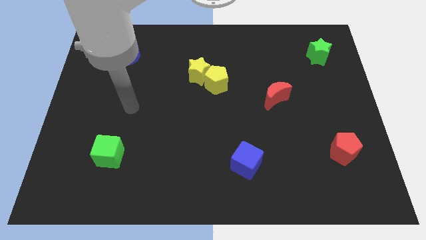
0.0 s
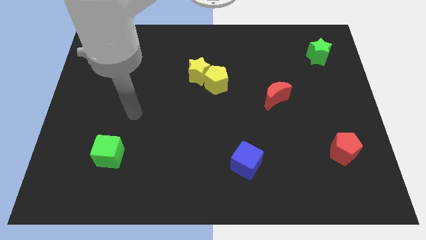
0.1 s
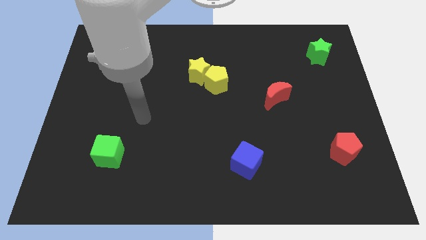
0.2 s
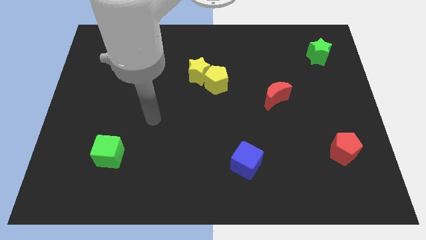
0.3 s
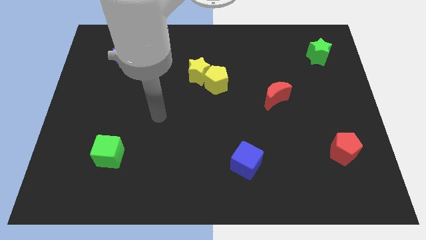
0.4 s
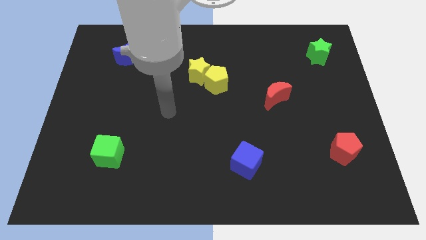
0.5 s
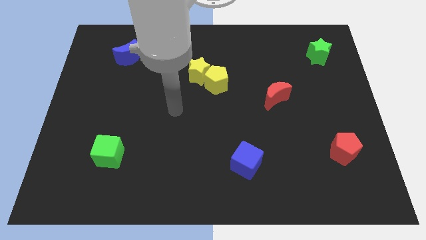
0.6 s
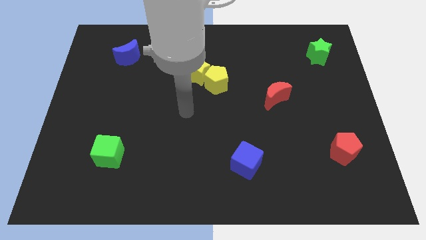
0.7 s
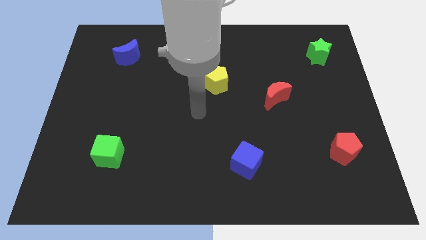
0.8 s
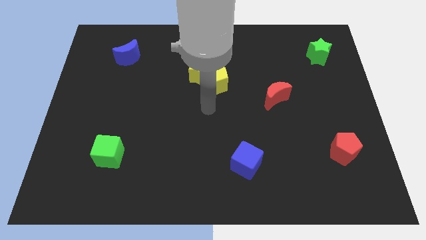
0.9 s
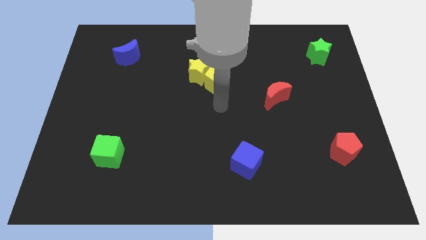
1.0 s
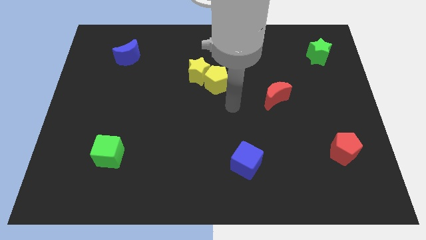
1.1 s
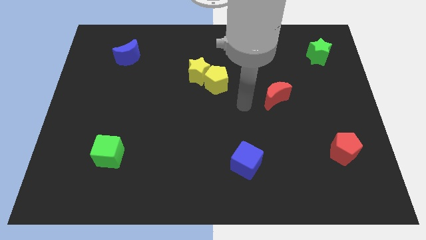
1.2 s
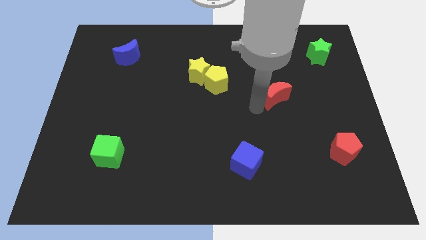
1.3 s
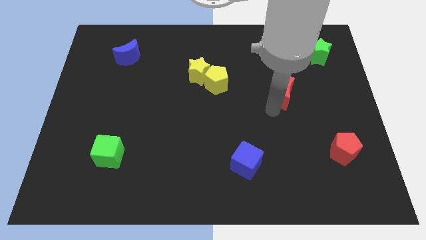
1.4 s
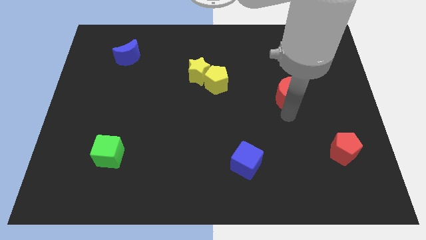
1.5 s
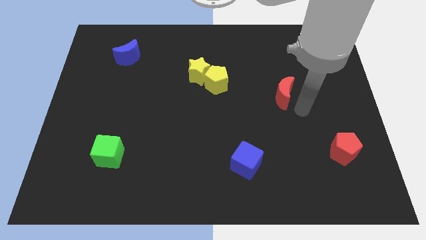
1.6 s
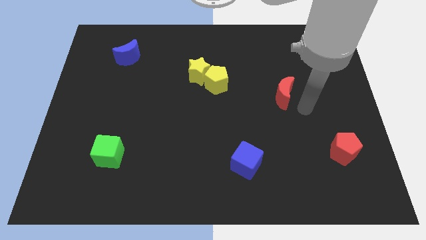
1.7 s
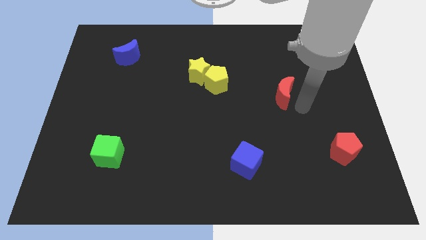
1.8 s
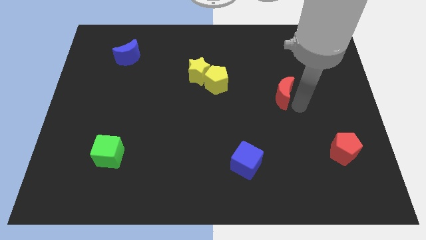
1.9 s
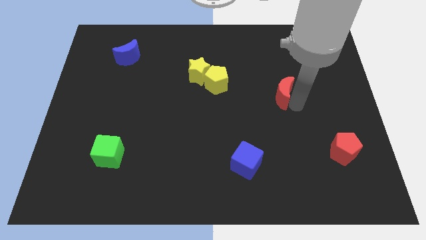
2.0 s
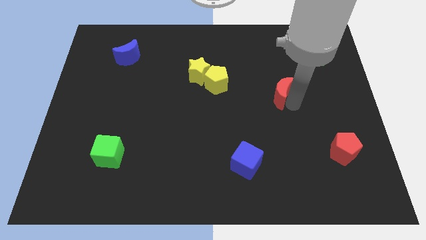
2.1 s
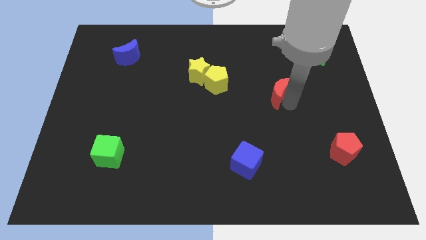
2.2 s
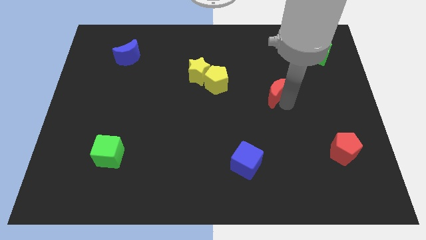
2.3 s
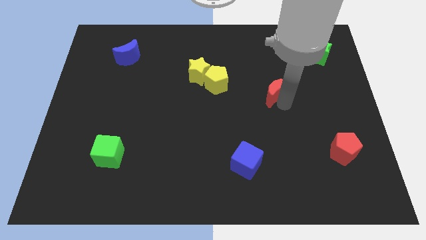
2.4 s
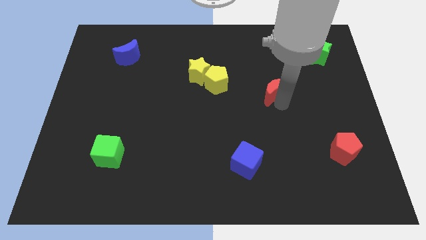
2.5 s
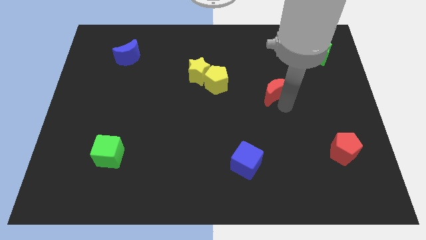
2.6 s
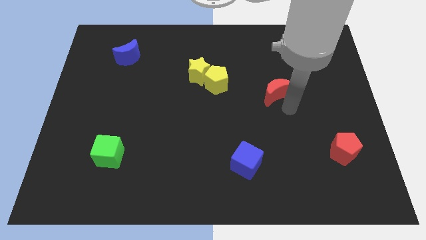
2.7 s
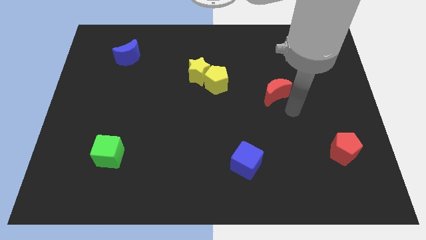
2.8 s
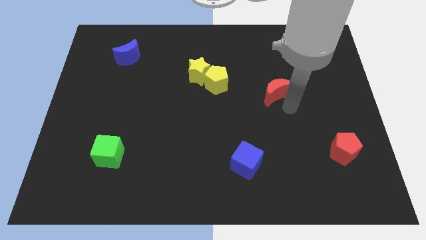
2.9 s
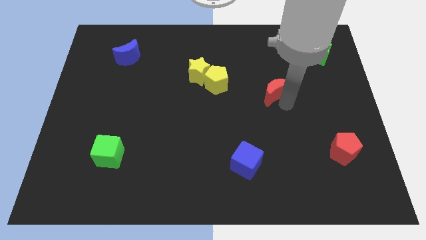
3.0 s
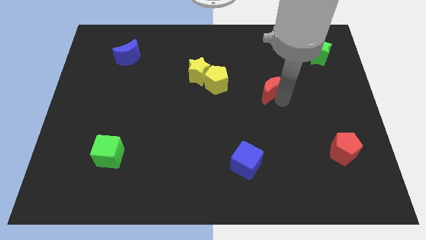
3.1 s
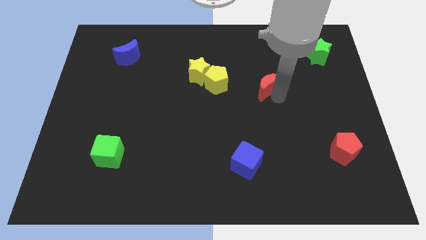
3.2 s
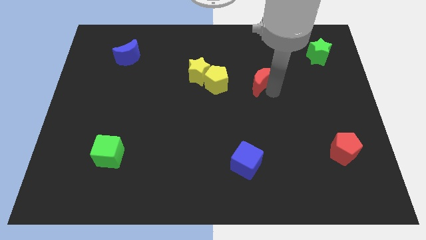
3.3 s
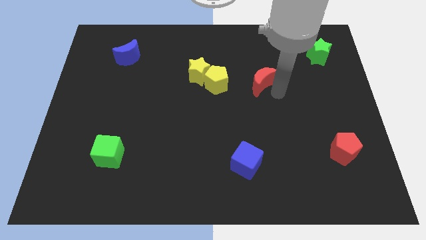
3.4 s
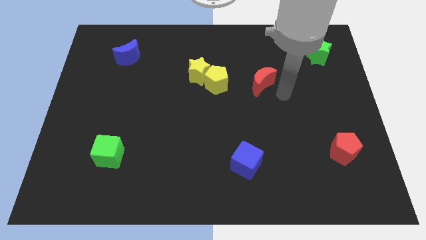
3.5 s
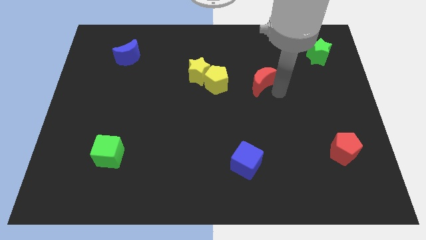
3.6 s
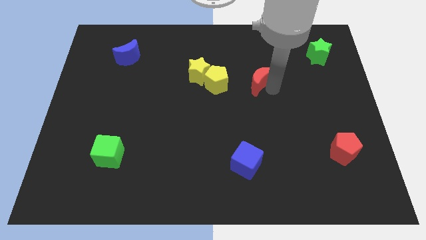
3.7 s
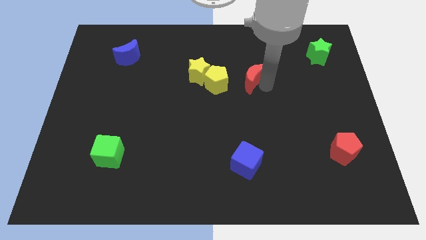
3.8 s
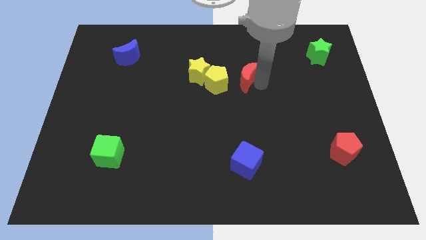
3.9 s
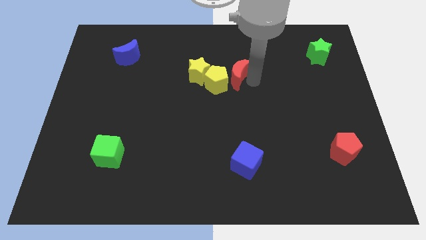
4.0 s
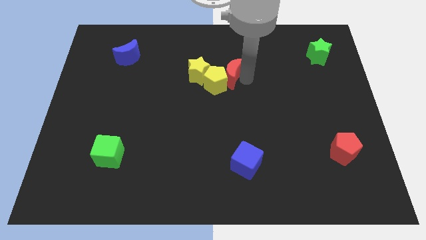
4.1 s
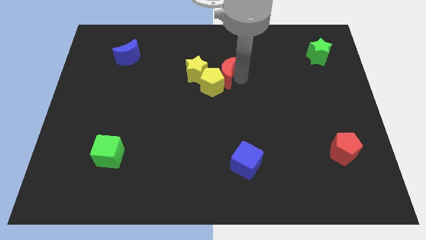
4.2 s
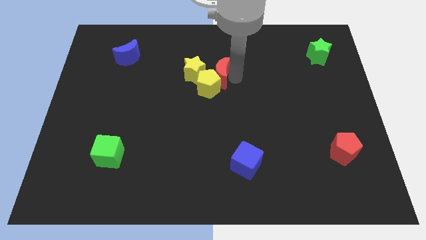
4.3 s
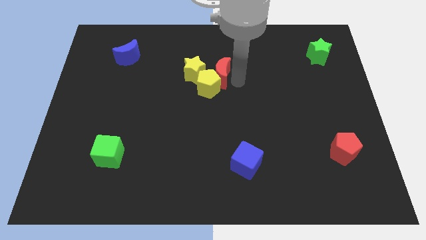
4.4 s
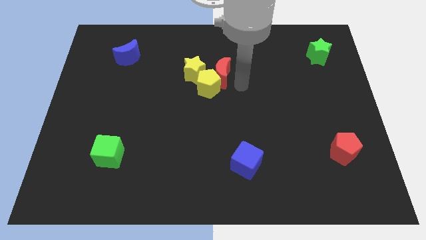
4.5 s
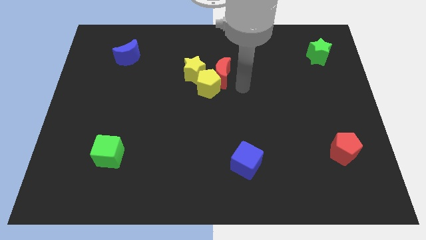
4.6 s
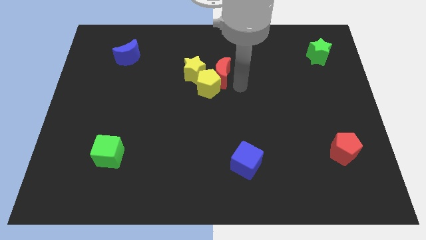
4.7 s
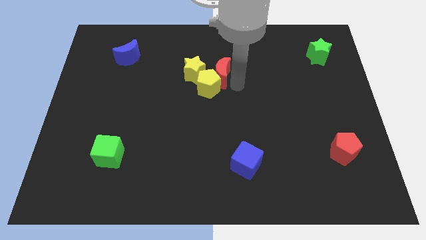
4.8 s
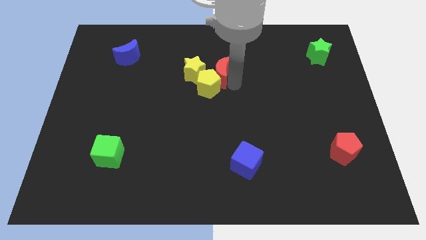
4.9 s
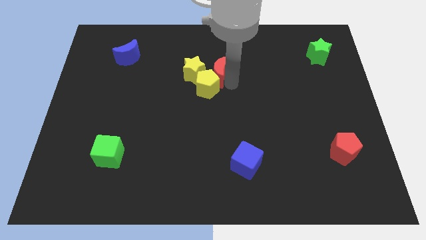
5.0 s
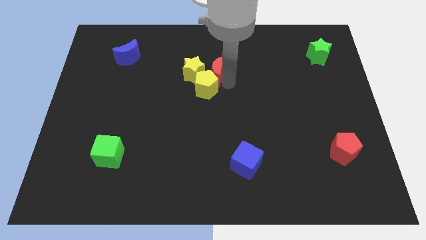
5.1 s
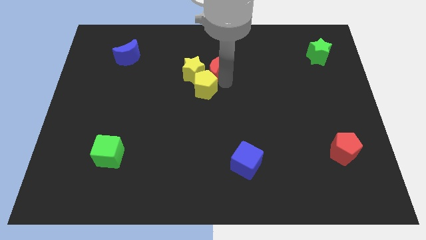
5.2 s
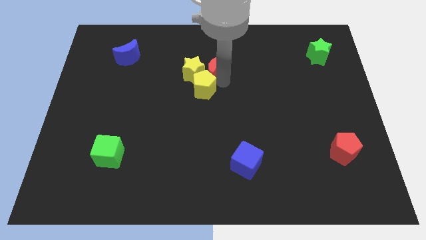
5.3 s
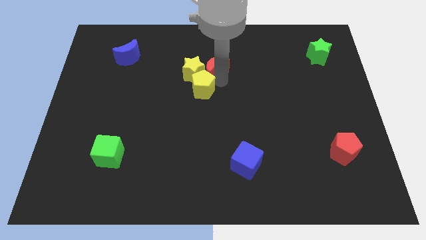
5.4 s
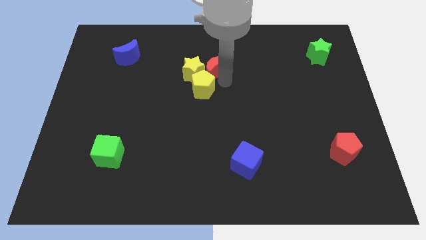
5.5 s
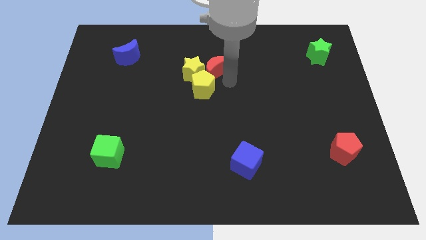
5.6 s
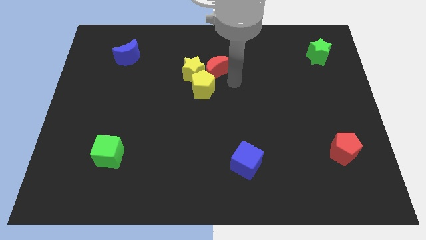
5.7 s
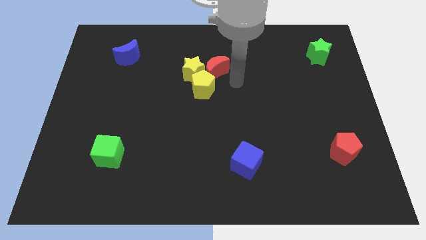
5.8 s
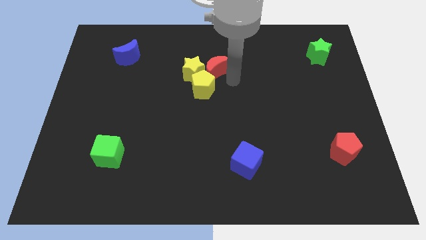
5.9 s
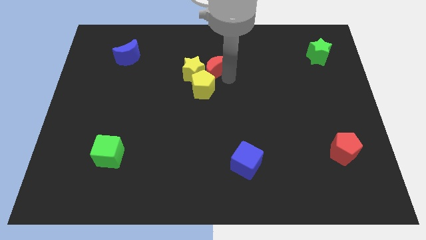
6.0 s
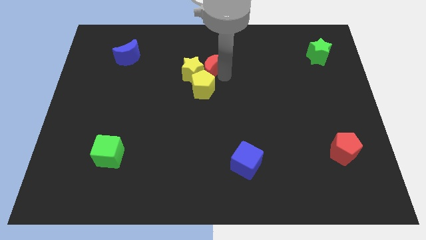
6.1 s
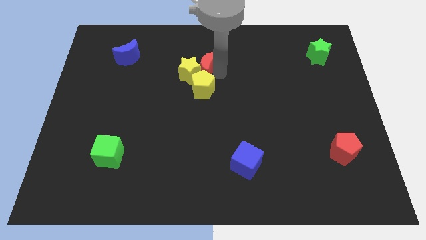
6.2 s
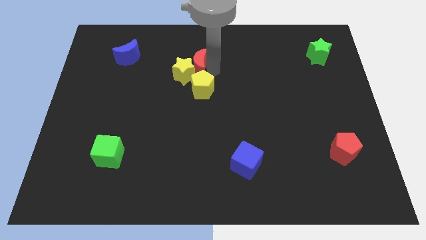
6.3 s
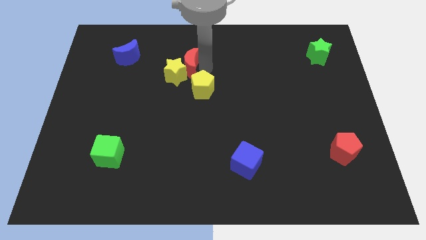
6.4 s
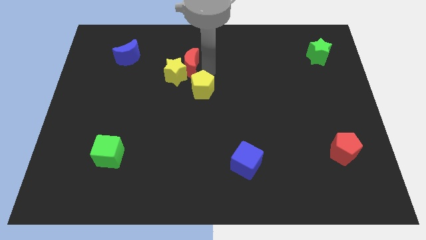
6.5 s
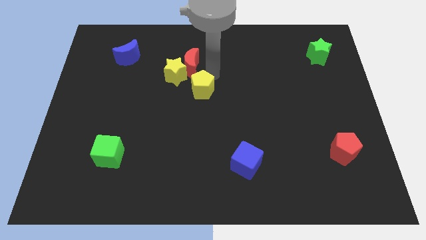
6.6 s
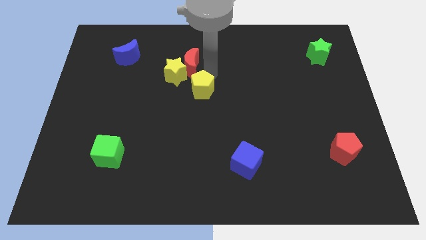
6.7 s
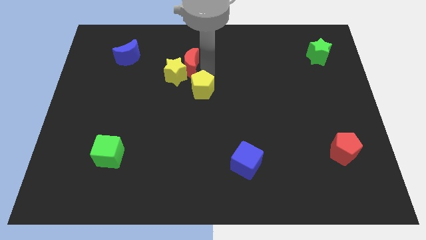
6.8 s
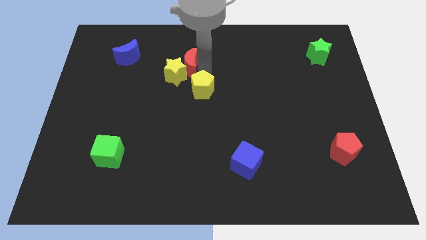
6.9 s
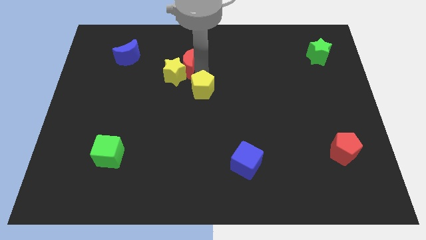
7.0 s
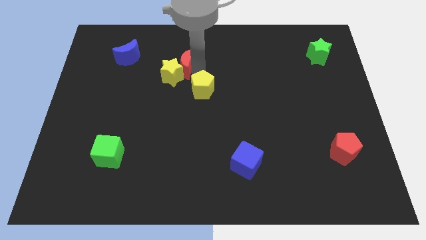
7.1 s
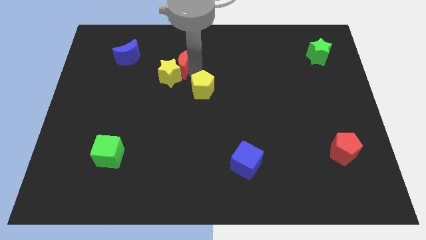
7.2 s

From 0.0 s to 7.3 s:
push the red moon to the right of the blue moon
